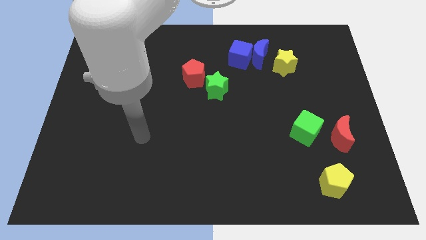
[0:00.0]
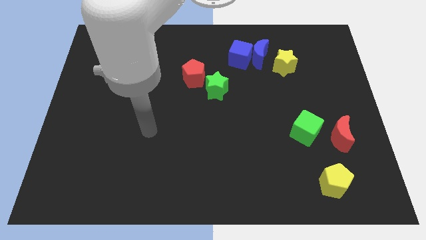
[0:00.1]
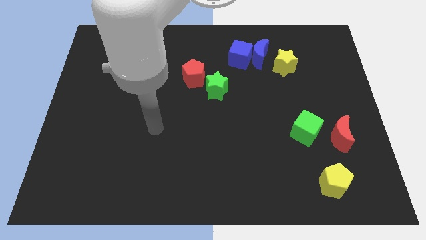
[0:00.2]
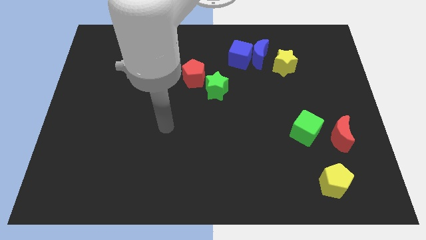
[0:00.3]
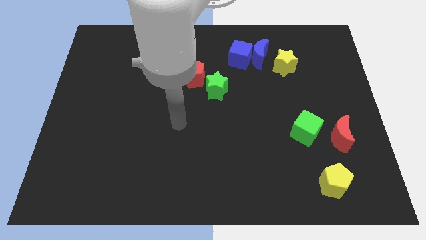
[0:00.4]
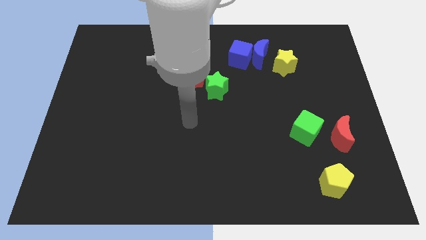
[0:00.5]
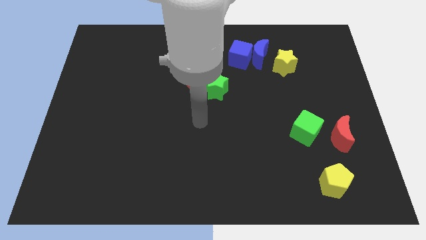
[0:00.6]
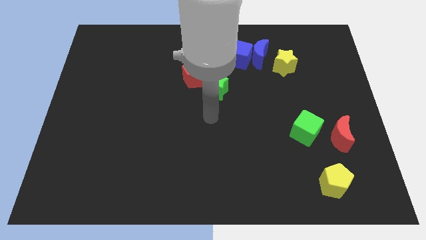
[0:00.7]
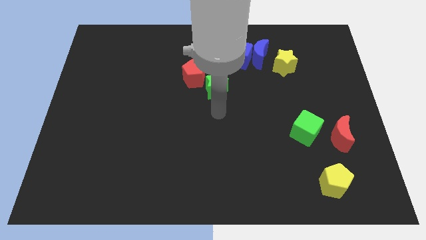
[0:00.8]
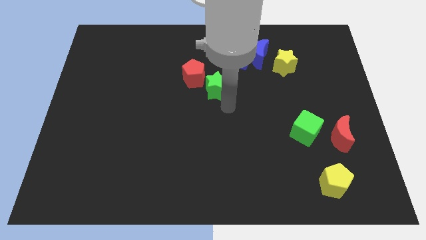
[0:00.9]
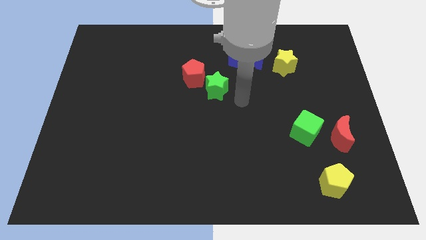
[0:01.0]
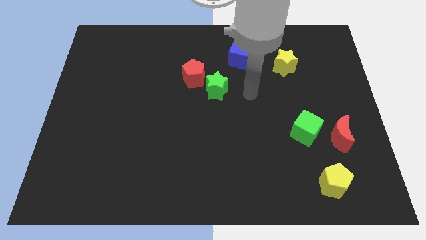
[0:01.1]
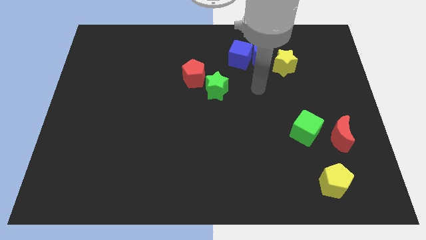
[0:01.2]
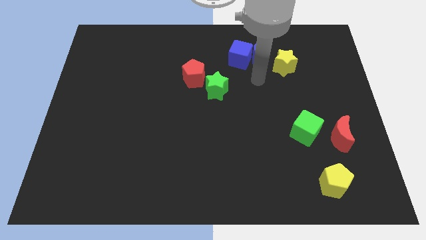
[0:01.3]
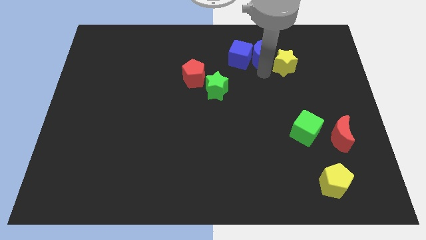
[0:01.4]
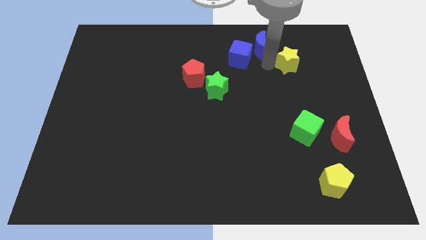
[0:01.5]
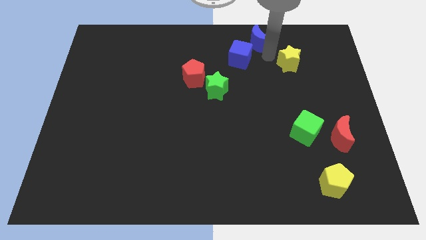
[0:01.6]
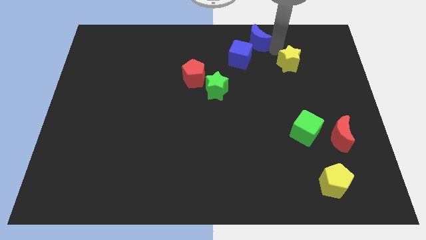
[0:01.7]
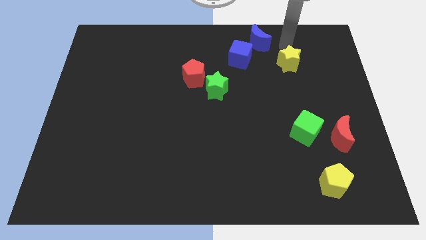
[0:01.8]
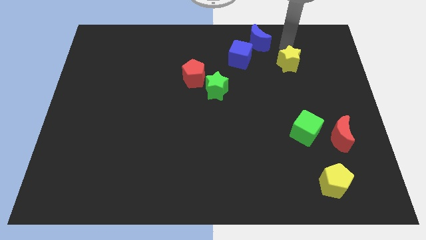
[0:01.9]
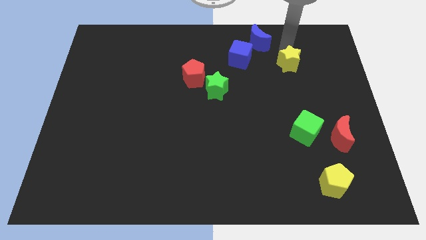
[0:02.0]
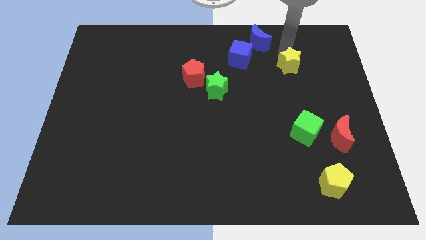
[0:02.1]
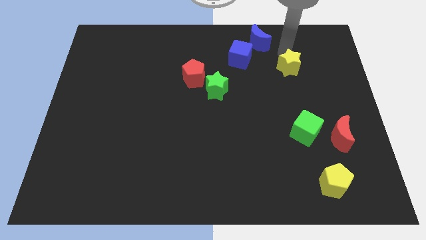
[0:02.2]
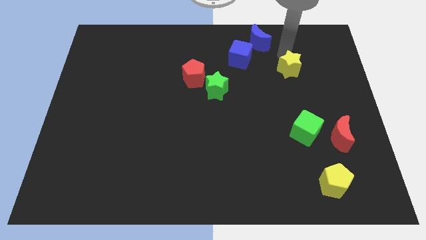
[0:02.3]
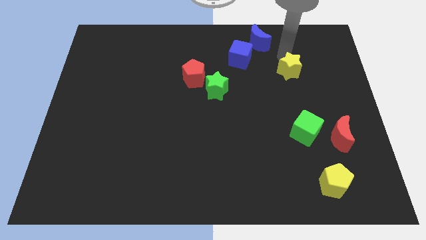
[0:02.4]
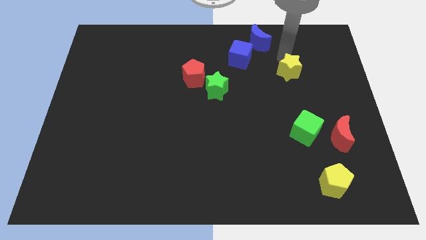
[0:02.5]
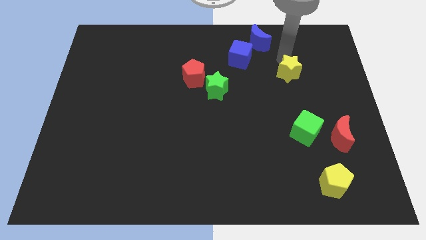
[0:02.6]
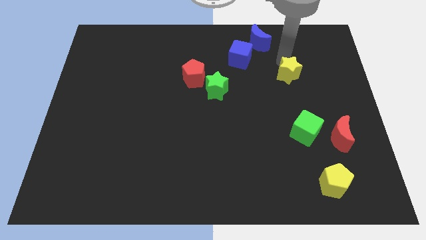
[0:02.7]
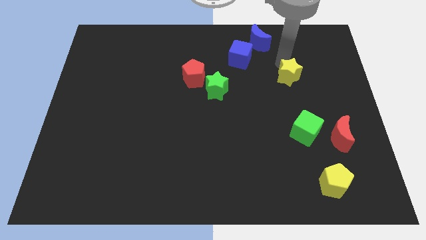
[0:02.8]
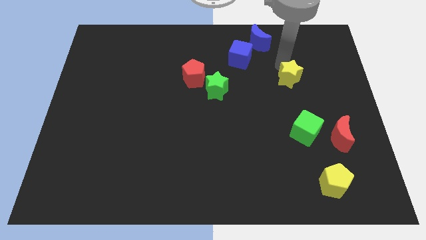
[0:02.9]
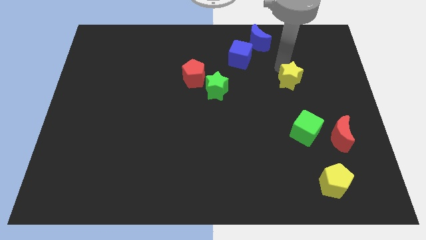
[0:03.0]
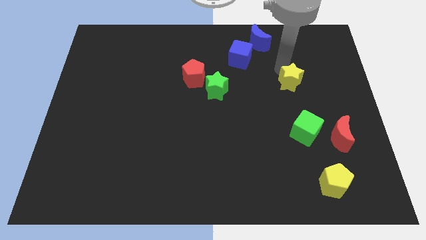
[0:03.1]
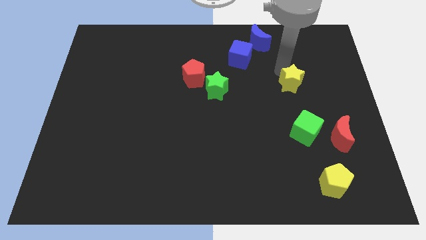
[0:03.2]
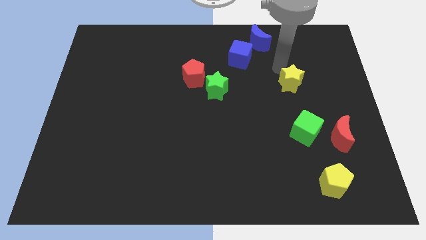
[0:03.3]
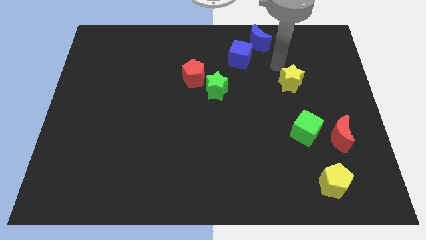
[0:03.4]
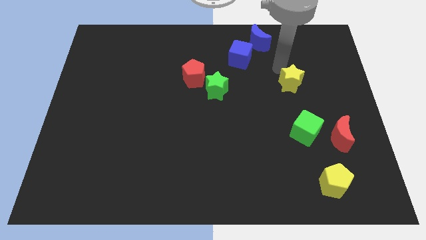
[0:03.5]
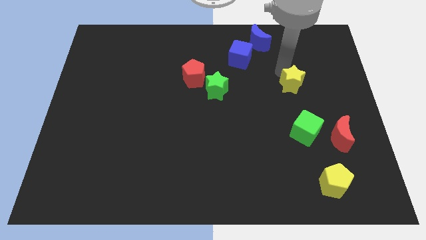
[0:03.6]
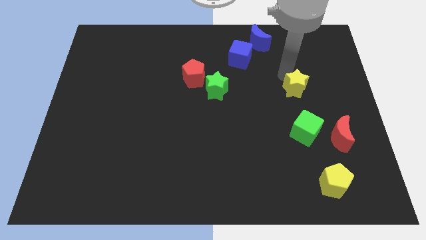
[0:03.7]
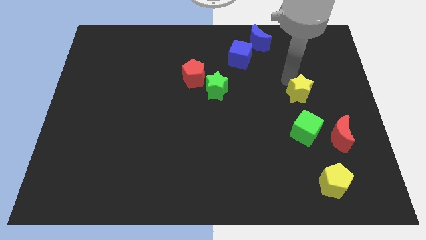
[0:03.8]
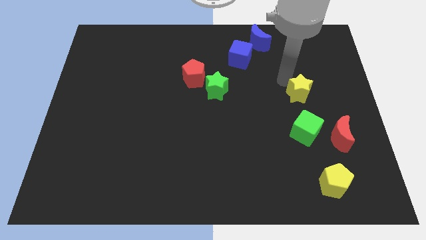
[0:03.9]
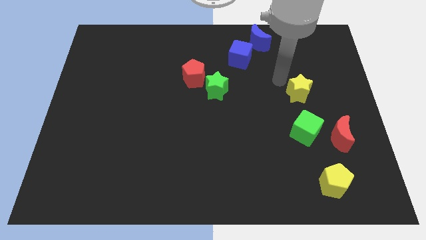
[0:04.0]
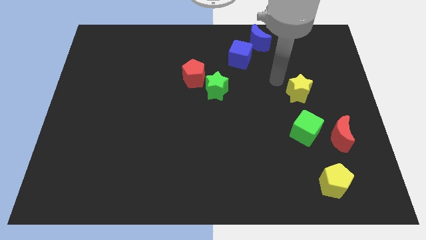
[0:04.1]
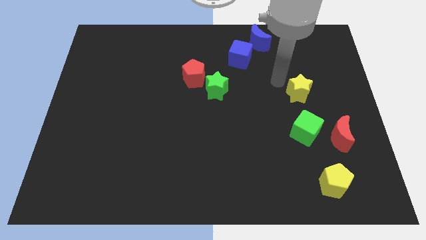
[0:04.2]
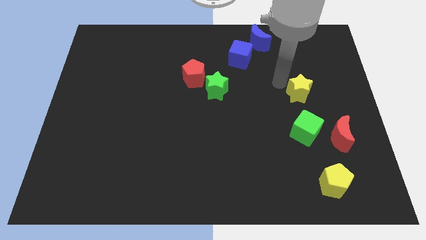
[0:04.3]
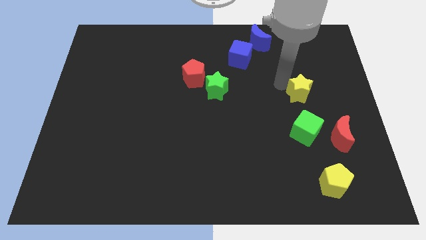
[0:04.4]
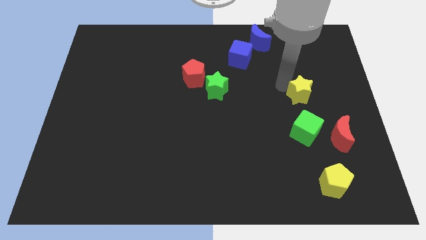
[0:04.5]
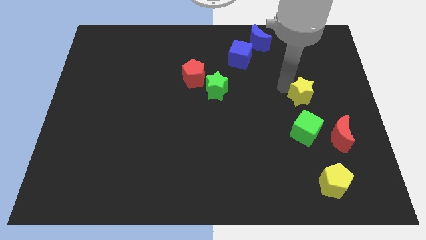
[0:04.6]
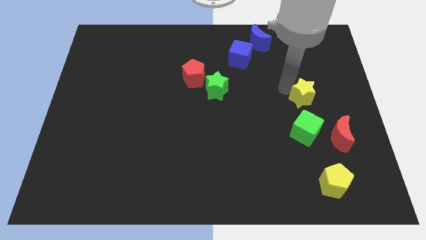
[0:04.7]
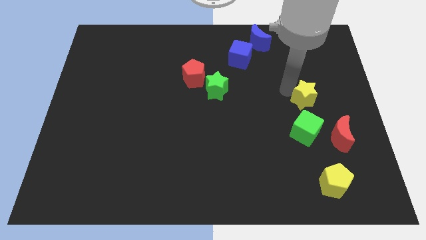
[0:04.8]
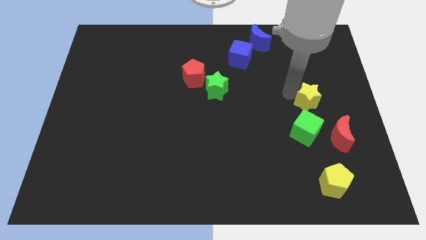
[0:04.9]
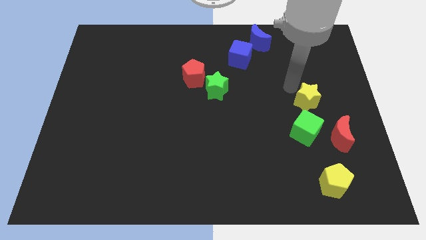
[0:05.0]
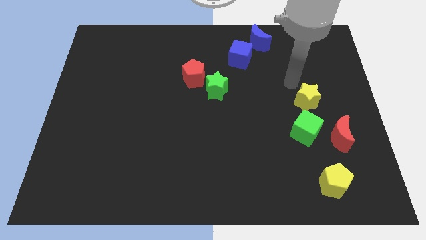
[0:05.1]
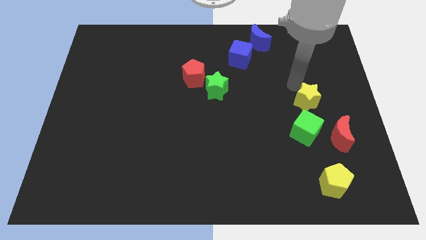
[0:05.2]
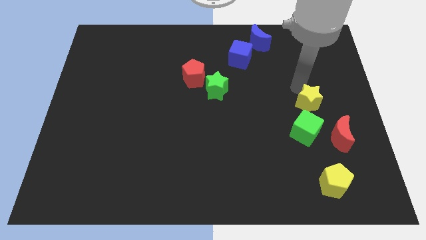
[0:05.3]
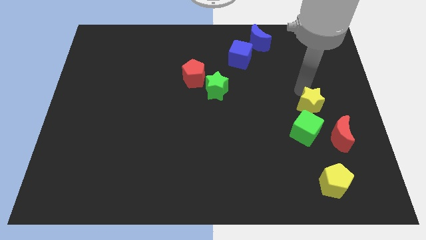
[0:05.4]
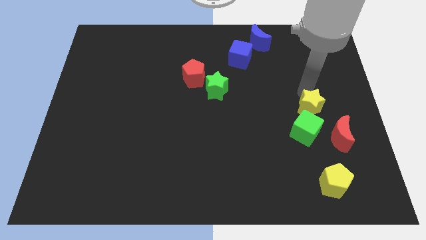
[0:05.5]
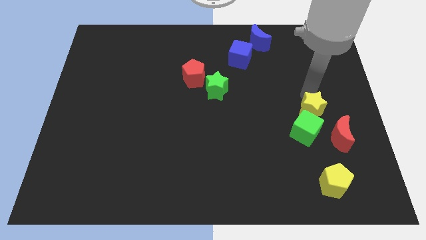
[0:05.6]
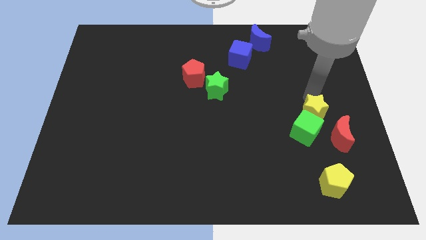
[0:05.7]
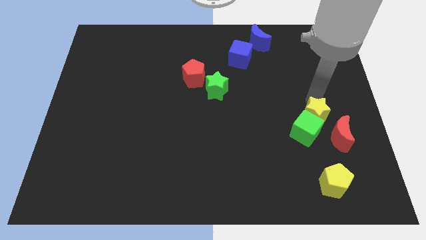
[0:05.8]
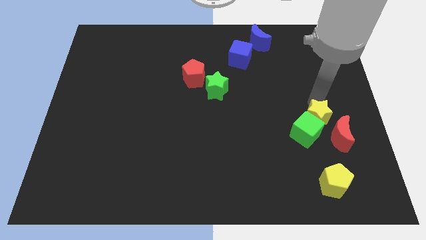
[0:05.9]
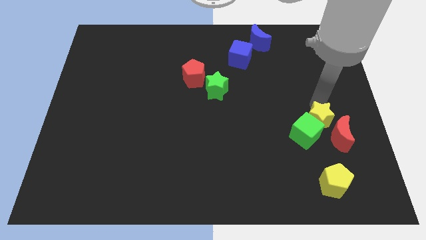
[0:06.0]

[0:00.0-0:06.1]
put the yellow star to the red moon
